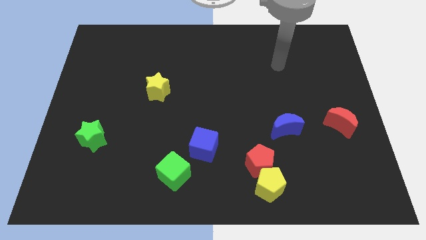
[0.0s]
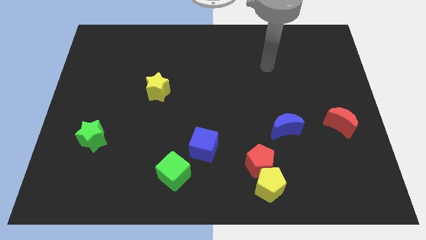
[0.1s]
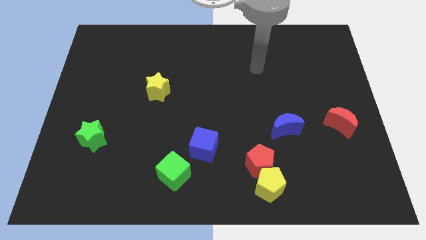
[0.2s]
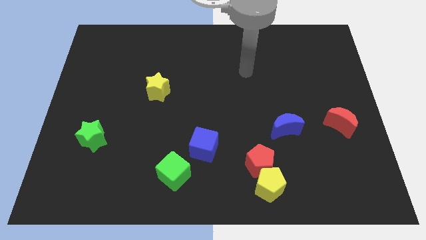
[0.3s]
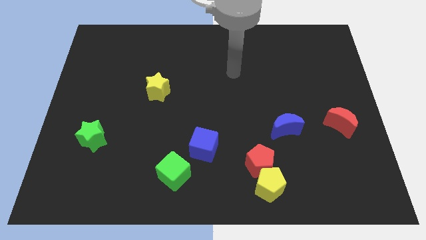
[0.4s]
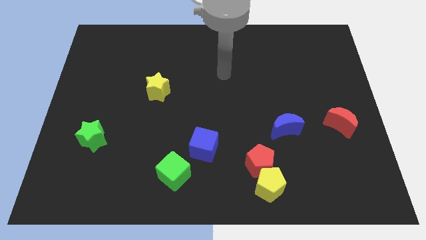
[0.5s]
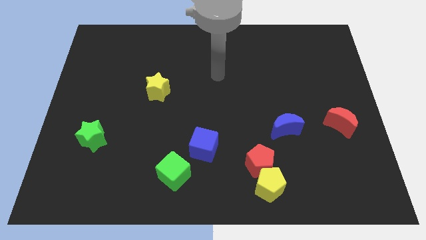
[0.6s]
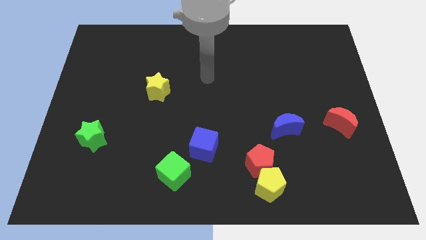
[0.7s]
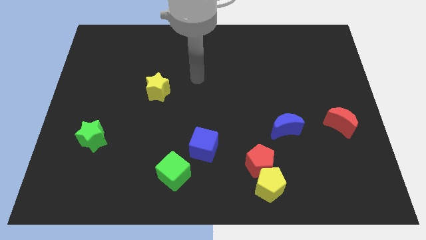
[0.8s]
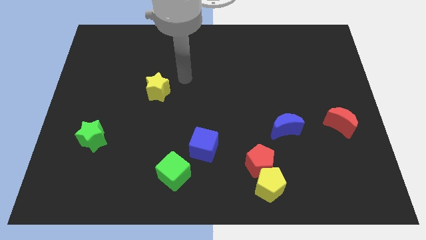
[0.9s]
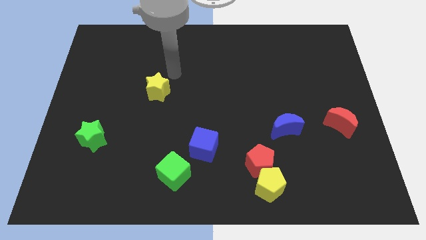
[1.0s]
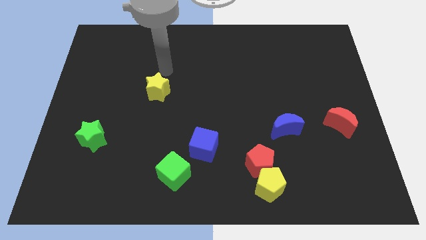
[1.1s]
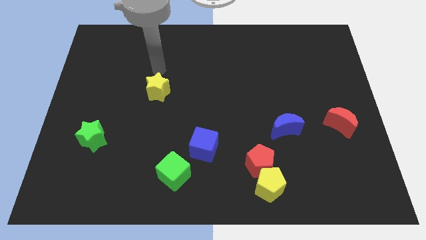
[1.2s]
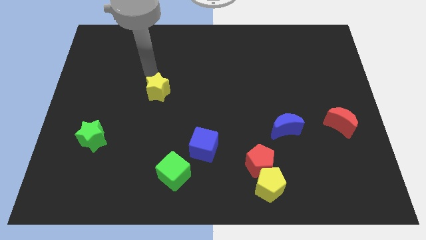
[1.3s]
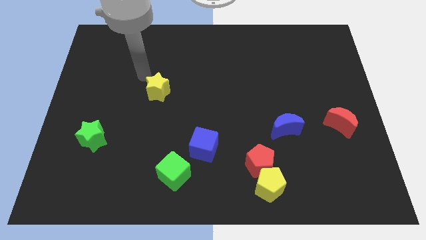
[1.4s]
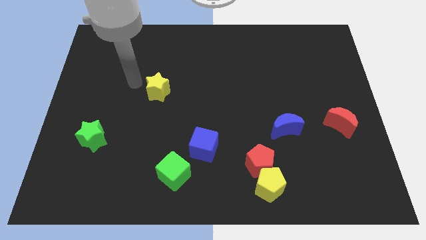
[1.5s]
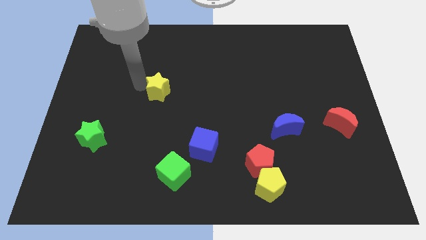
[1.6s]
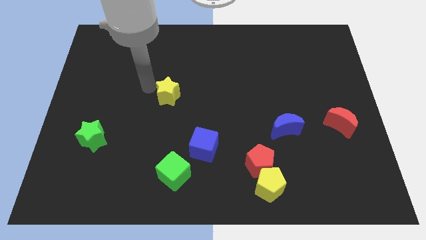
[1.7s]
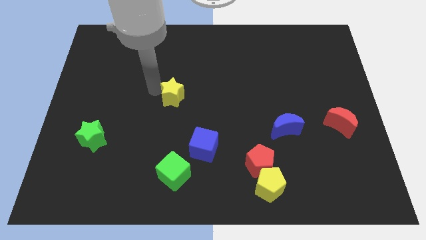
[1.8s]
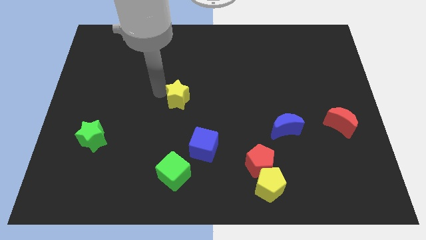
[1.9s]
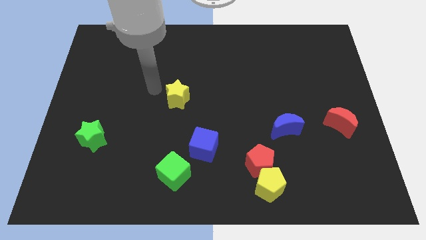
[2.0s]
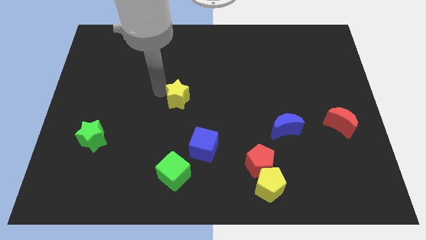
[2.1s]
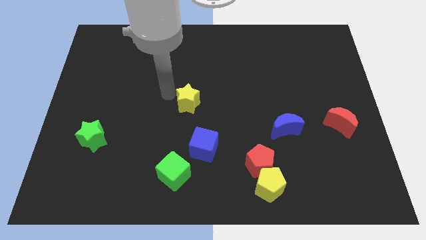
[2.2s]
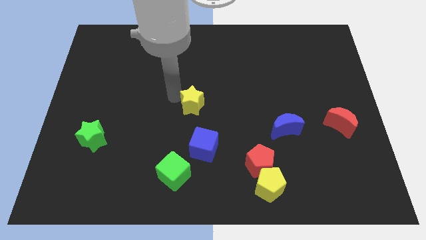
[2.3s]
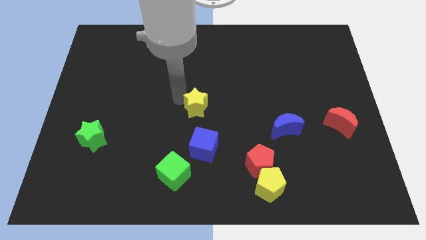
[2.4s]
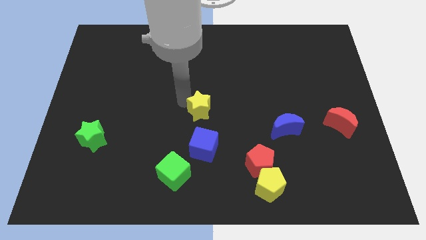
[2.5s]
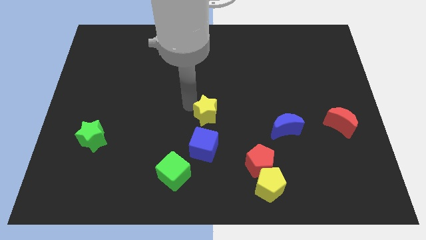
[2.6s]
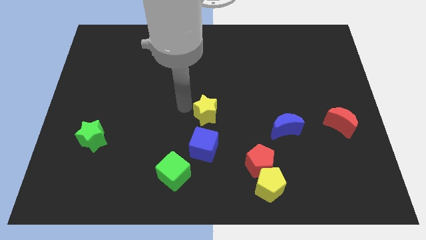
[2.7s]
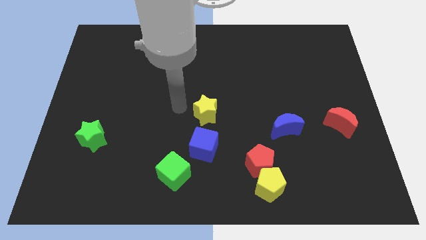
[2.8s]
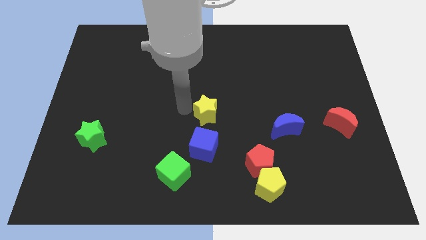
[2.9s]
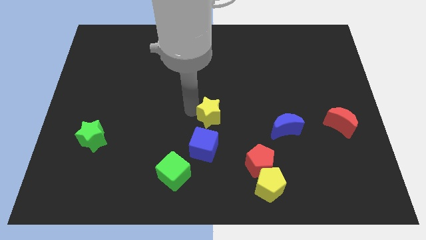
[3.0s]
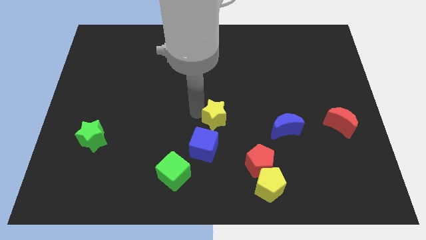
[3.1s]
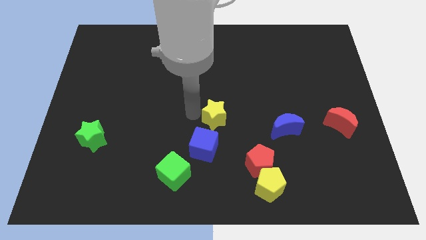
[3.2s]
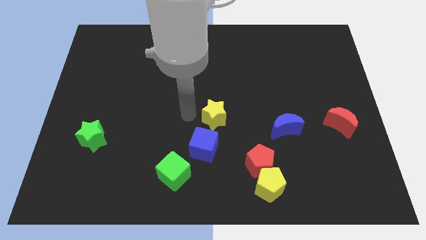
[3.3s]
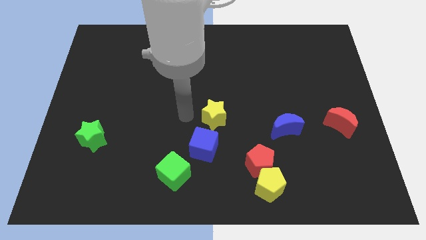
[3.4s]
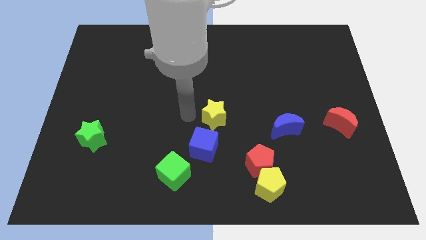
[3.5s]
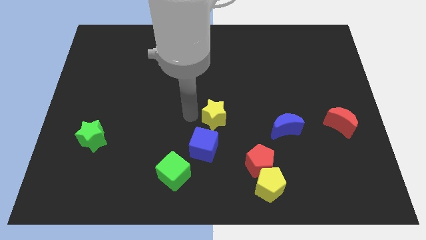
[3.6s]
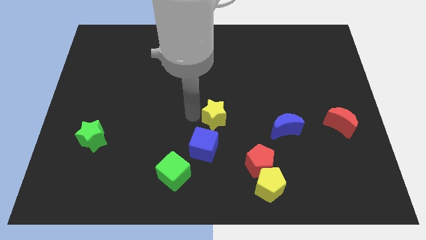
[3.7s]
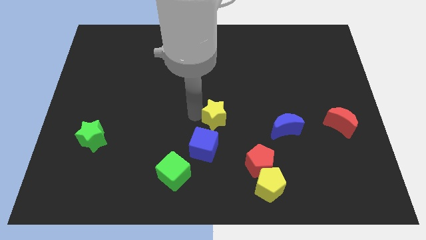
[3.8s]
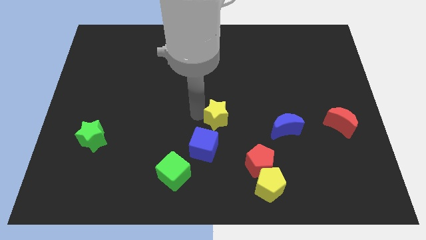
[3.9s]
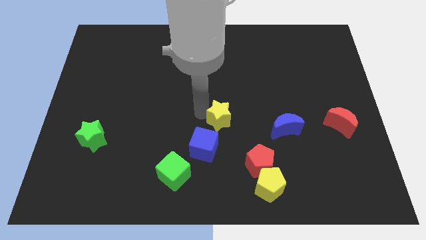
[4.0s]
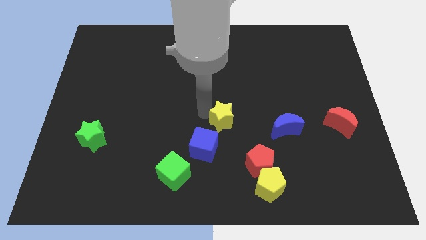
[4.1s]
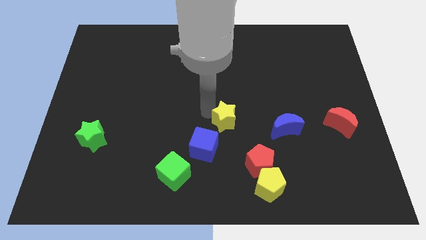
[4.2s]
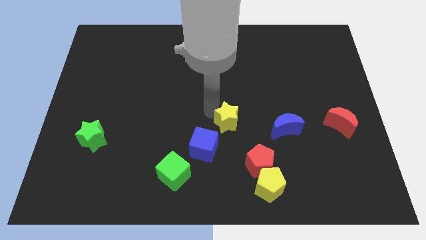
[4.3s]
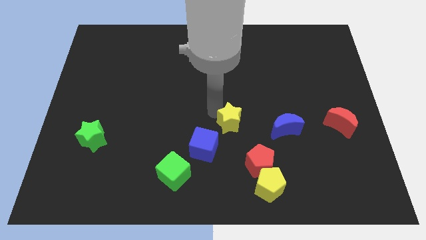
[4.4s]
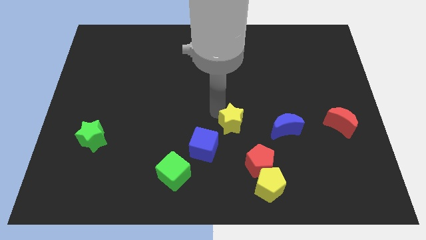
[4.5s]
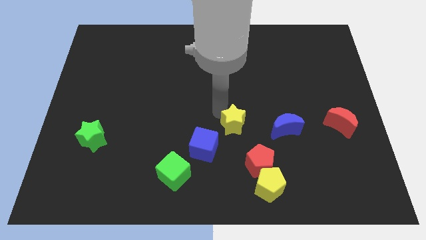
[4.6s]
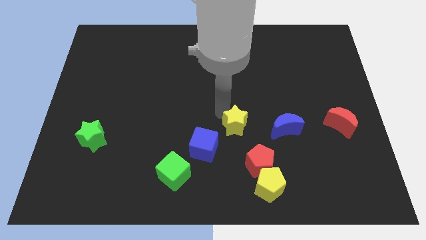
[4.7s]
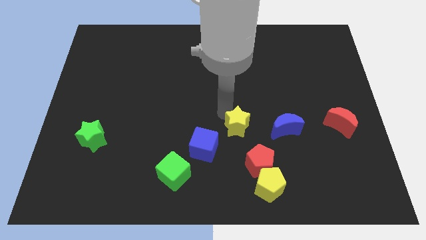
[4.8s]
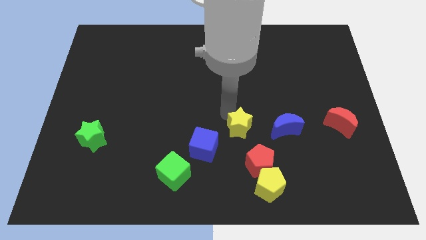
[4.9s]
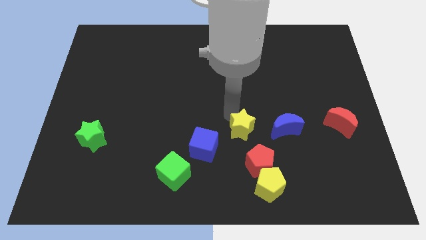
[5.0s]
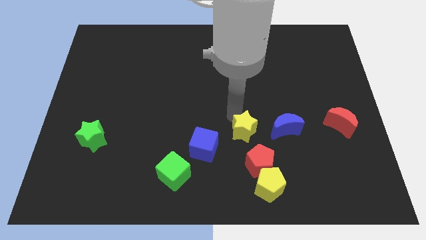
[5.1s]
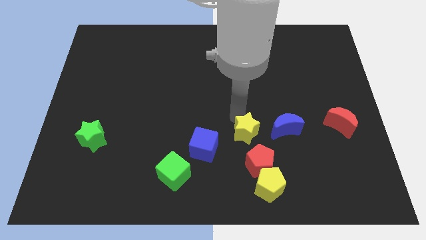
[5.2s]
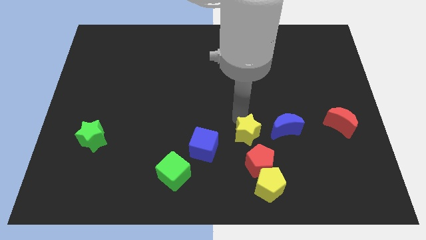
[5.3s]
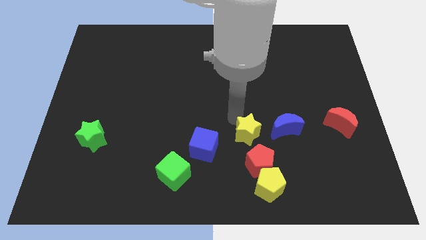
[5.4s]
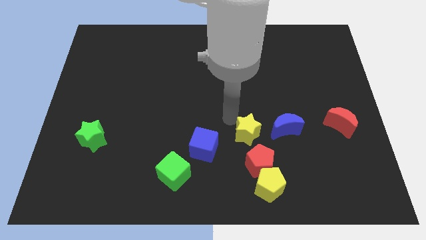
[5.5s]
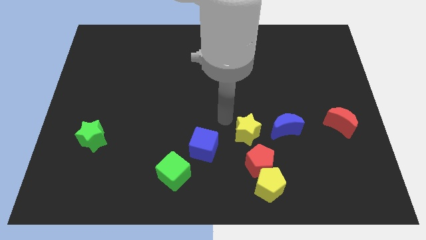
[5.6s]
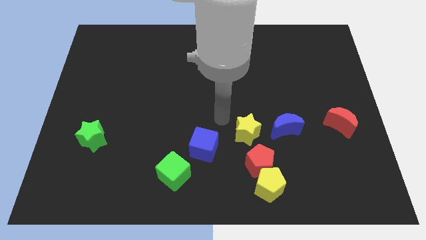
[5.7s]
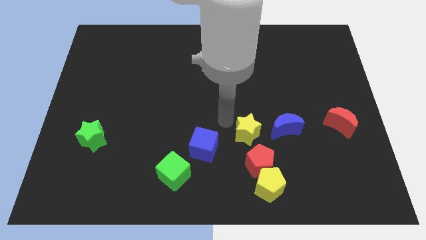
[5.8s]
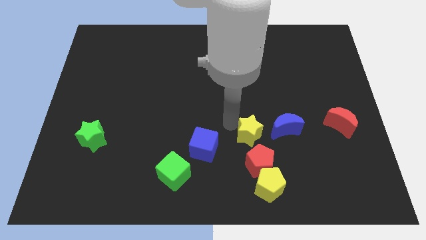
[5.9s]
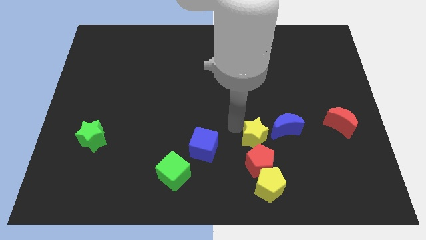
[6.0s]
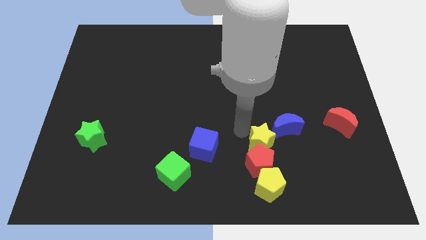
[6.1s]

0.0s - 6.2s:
slide the yellow star to the top right side of the red pentagon
